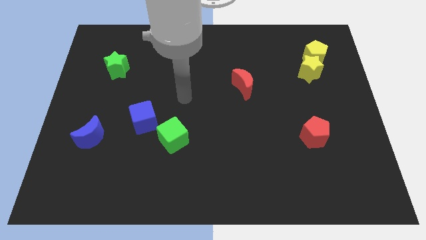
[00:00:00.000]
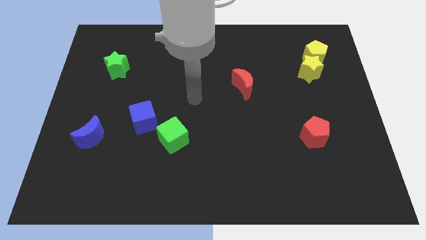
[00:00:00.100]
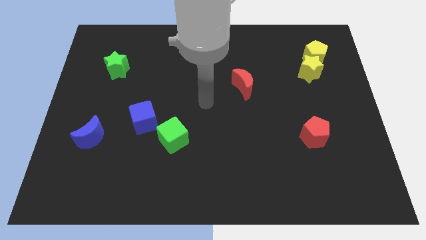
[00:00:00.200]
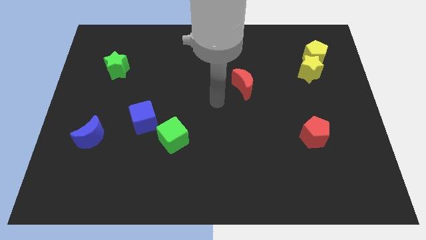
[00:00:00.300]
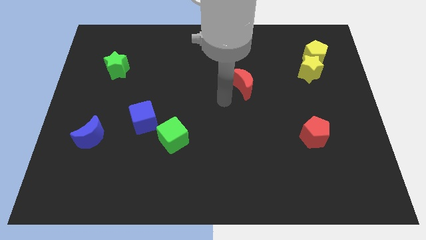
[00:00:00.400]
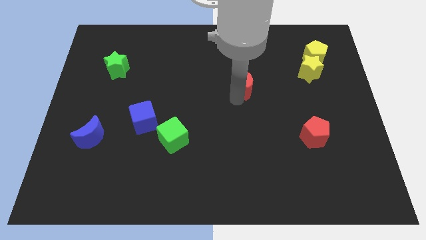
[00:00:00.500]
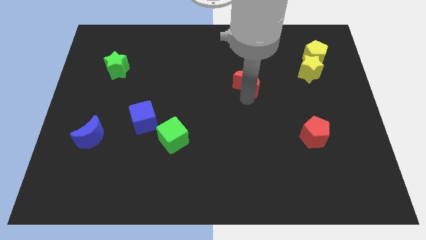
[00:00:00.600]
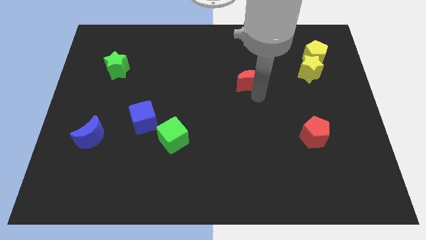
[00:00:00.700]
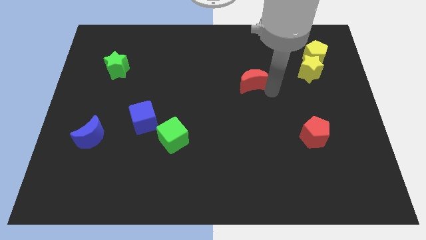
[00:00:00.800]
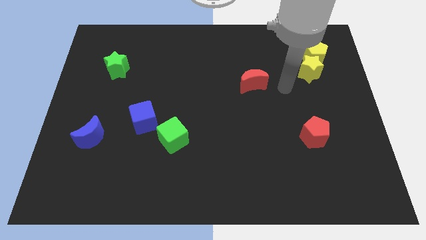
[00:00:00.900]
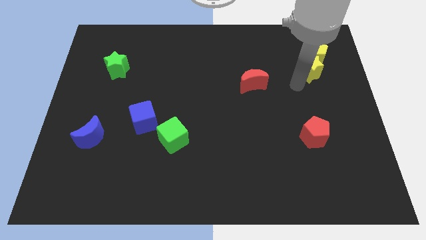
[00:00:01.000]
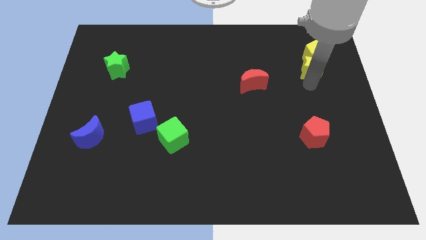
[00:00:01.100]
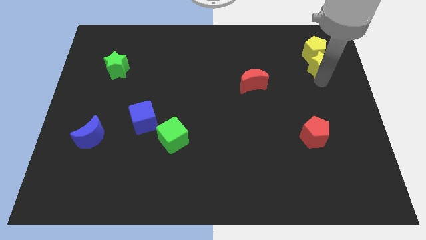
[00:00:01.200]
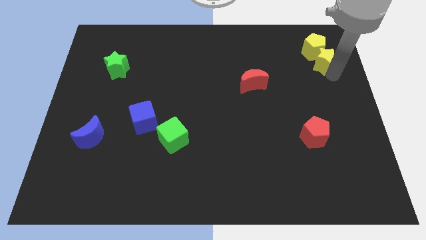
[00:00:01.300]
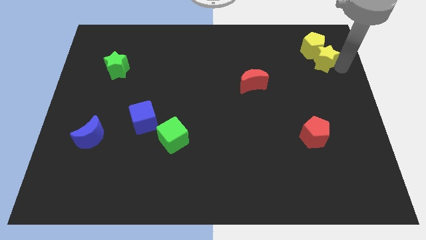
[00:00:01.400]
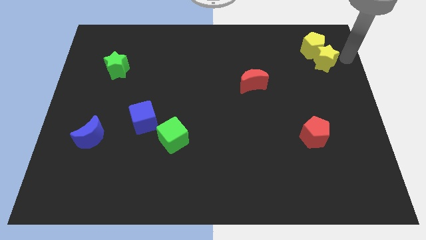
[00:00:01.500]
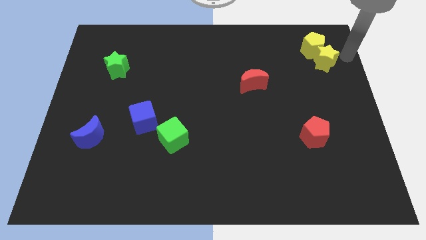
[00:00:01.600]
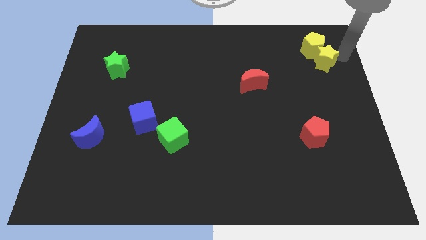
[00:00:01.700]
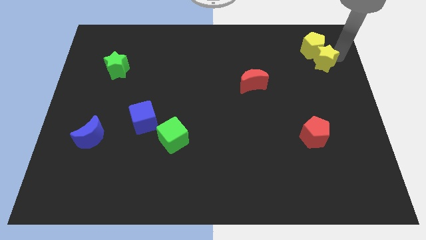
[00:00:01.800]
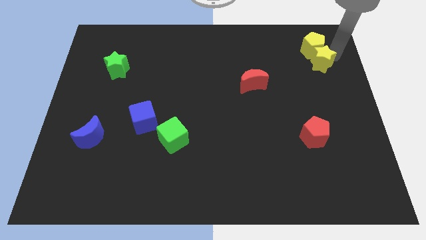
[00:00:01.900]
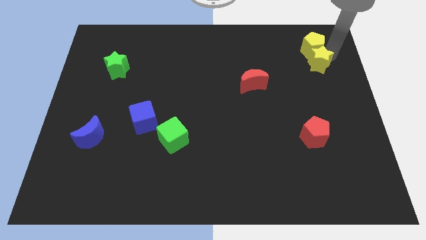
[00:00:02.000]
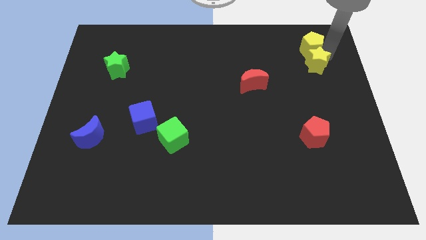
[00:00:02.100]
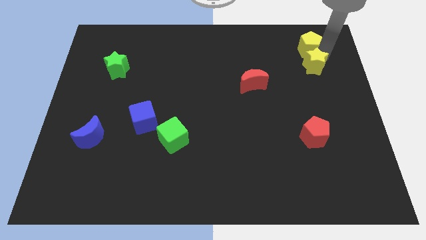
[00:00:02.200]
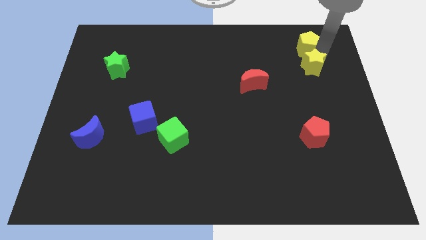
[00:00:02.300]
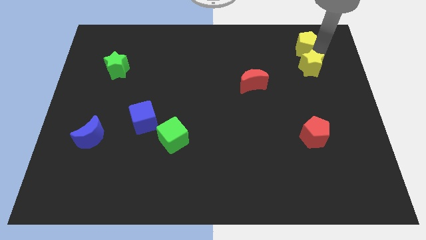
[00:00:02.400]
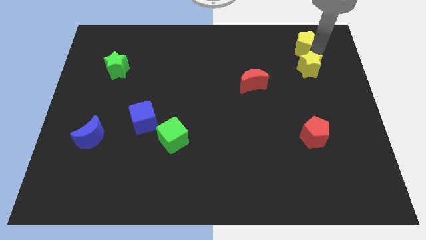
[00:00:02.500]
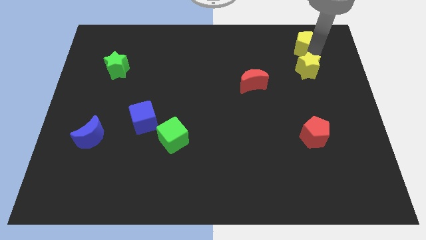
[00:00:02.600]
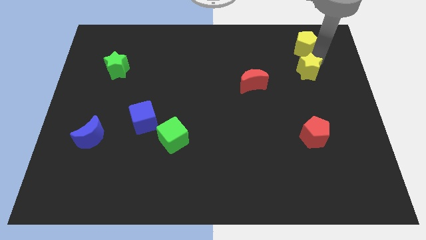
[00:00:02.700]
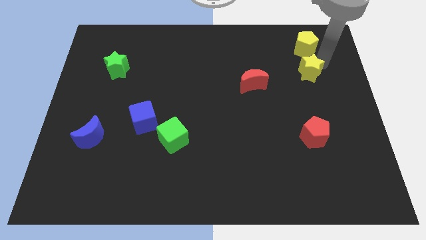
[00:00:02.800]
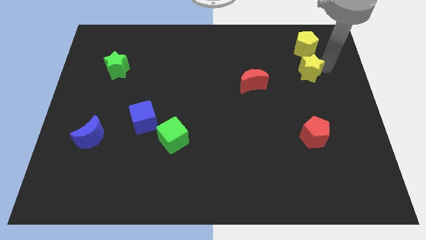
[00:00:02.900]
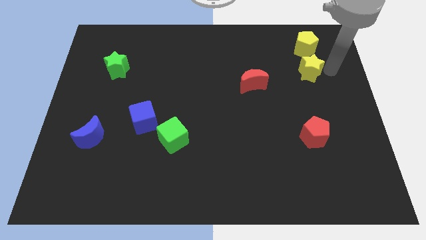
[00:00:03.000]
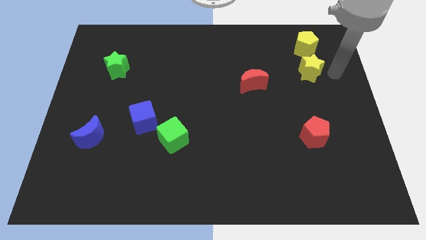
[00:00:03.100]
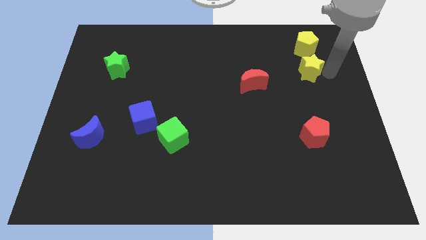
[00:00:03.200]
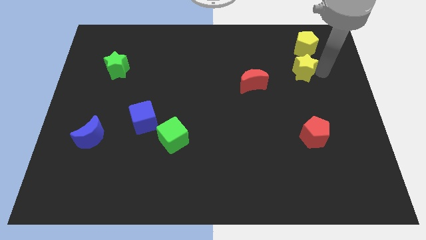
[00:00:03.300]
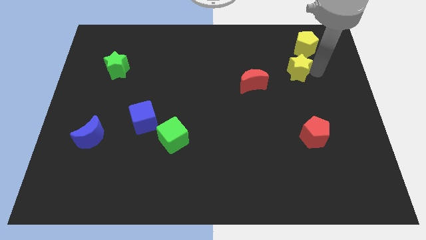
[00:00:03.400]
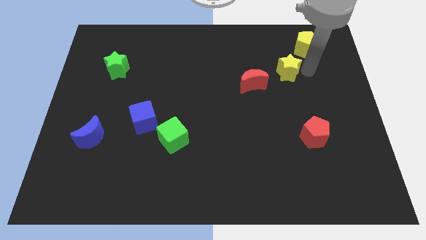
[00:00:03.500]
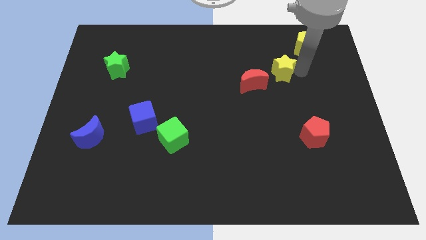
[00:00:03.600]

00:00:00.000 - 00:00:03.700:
slide the yellow star somewhat to the left

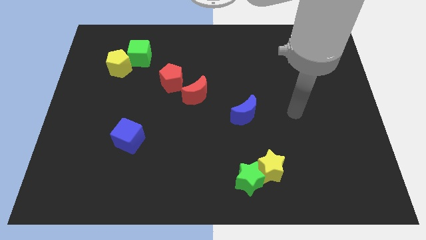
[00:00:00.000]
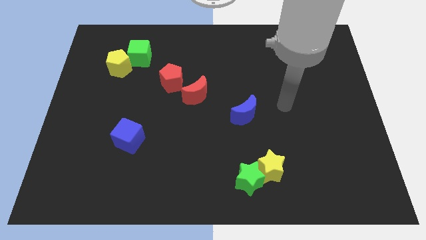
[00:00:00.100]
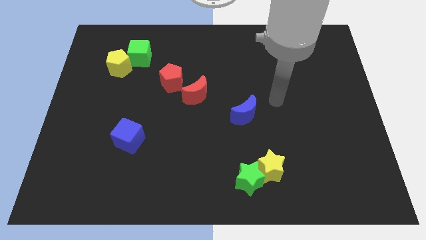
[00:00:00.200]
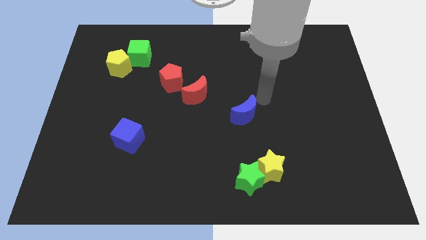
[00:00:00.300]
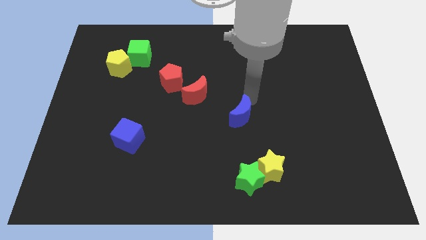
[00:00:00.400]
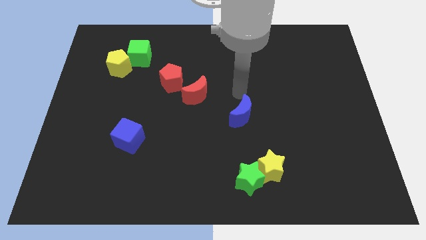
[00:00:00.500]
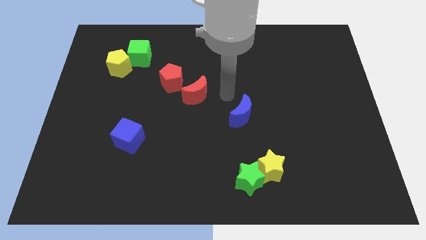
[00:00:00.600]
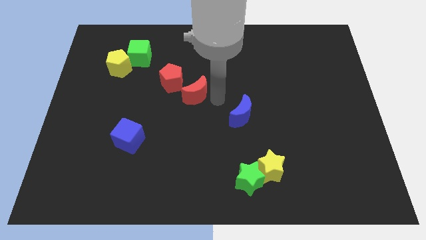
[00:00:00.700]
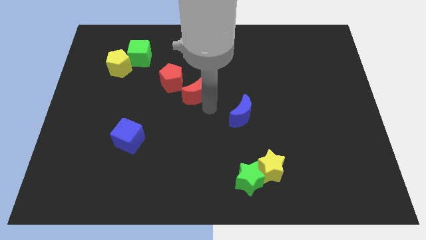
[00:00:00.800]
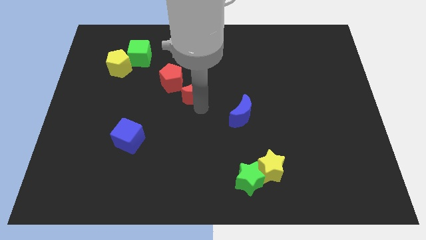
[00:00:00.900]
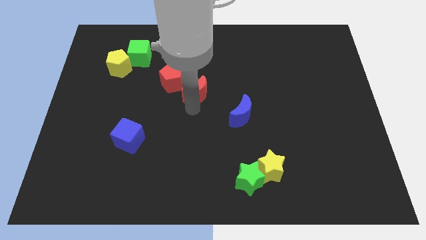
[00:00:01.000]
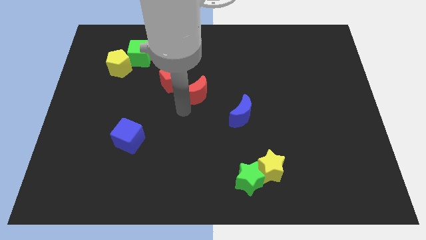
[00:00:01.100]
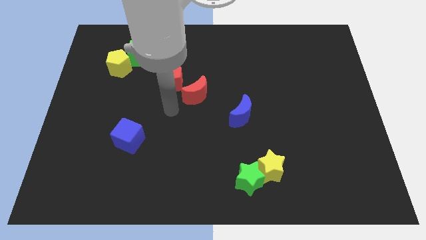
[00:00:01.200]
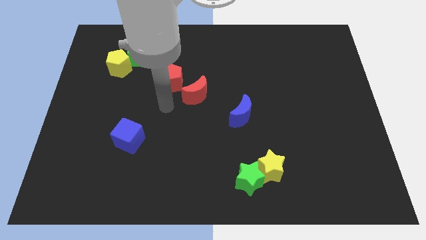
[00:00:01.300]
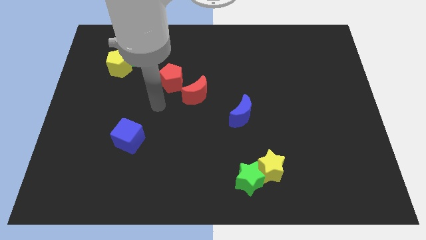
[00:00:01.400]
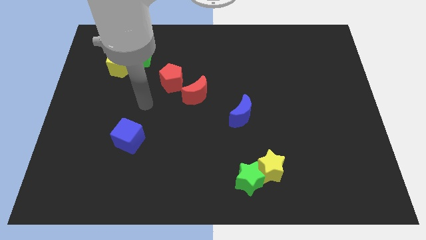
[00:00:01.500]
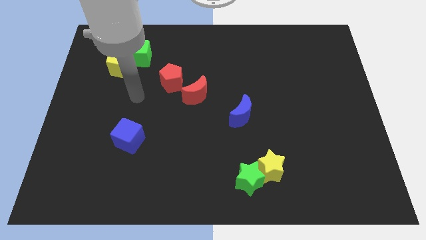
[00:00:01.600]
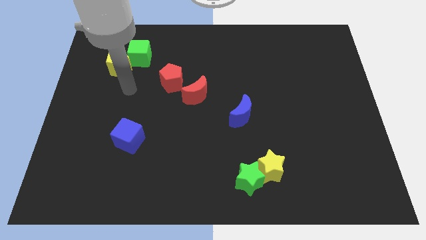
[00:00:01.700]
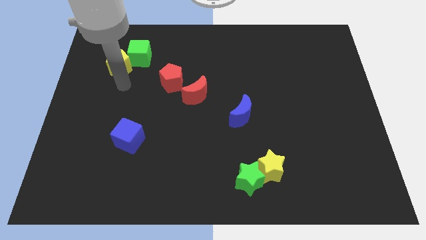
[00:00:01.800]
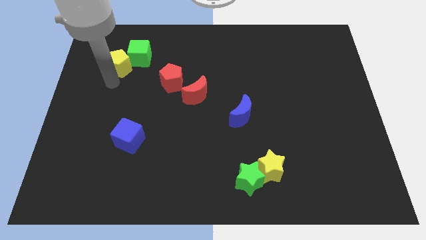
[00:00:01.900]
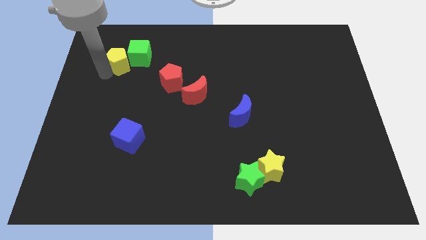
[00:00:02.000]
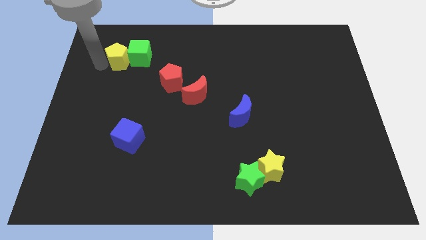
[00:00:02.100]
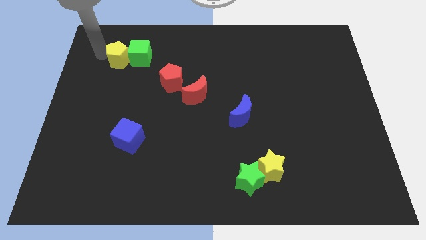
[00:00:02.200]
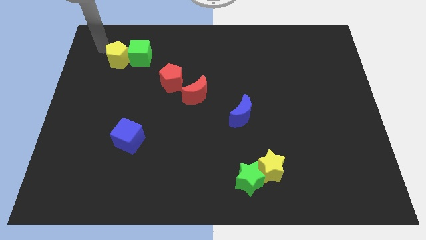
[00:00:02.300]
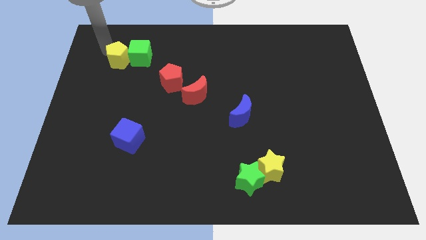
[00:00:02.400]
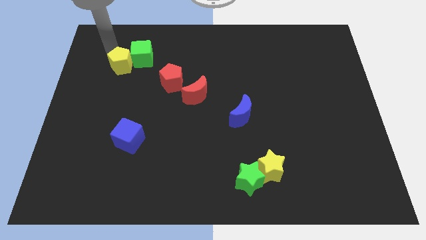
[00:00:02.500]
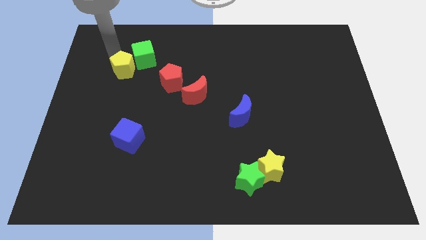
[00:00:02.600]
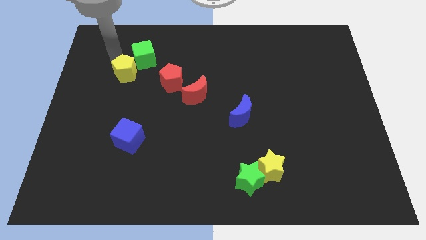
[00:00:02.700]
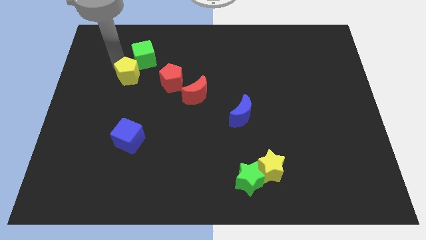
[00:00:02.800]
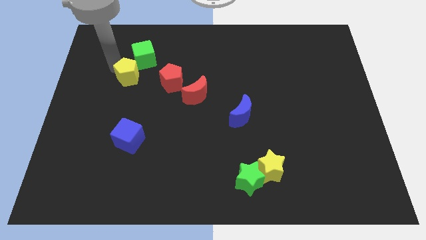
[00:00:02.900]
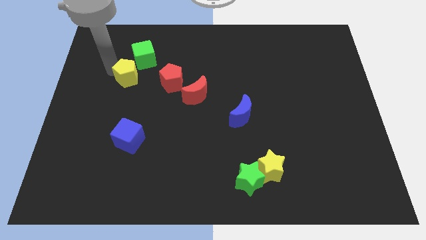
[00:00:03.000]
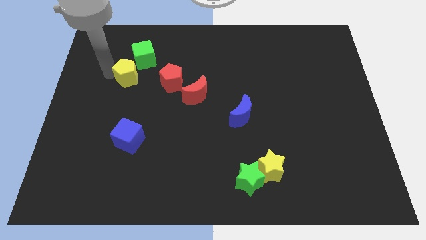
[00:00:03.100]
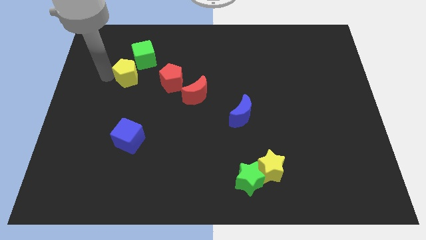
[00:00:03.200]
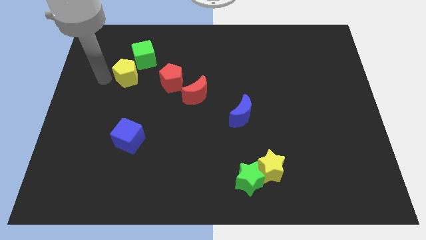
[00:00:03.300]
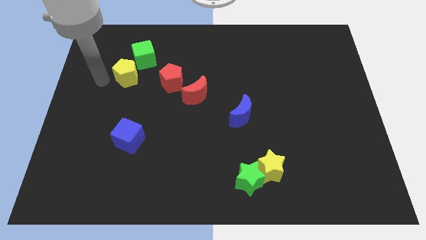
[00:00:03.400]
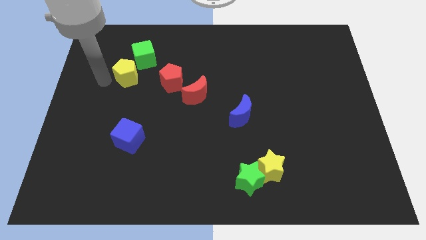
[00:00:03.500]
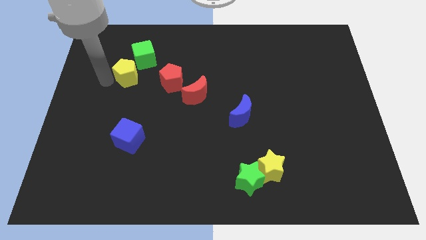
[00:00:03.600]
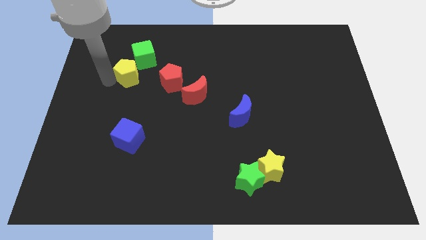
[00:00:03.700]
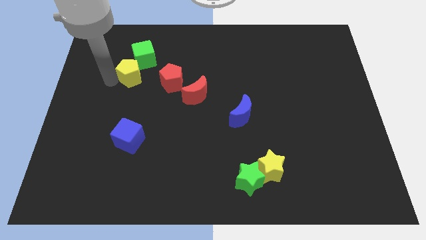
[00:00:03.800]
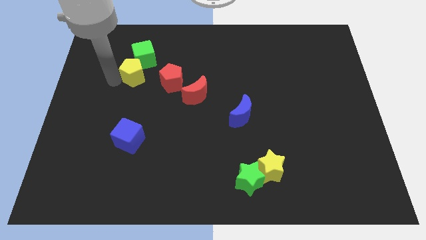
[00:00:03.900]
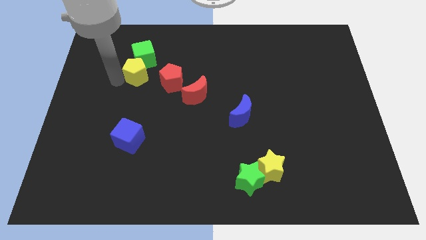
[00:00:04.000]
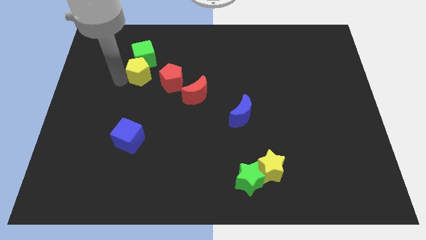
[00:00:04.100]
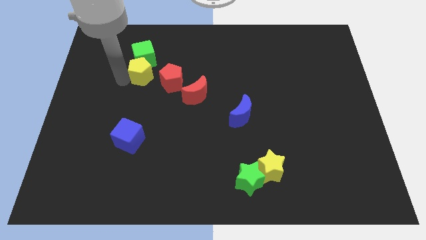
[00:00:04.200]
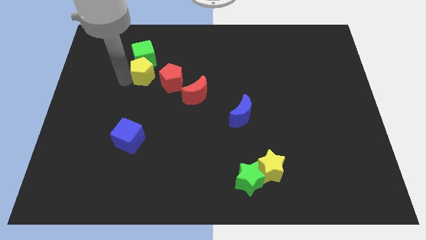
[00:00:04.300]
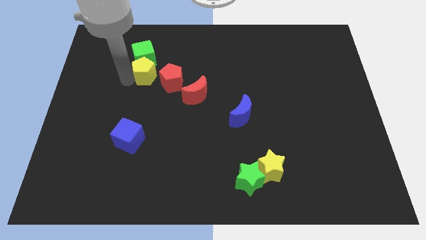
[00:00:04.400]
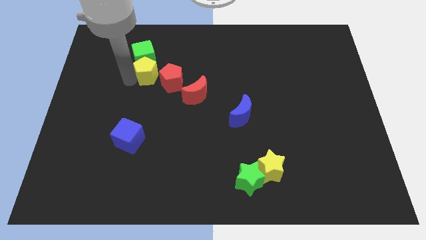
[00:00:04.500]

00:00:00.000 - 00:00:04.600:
push the yellow pentagon right a little
